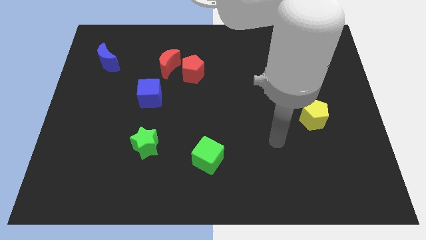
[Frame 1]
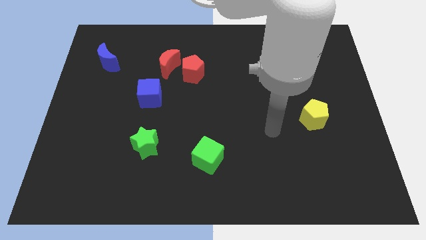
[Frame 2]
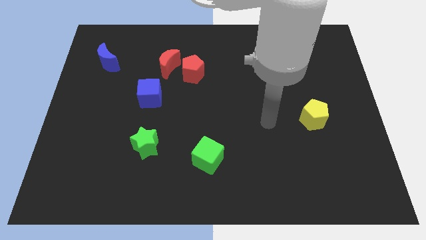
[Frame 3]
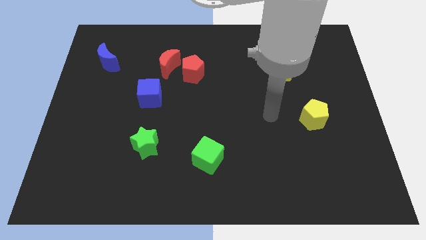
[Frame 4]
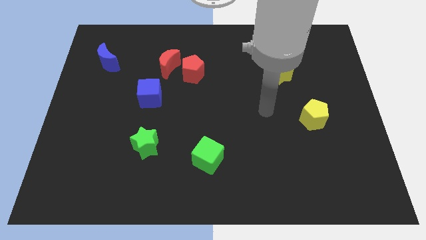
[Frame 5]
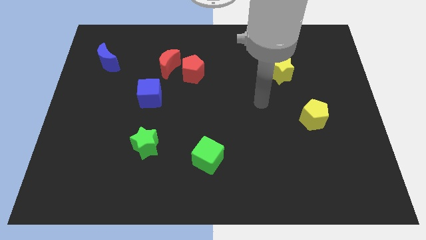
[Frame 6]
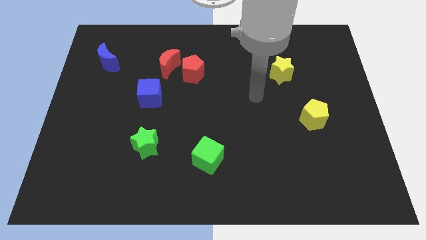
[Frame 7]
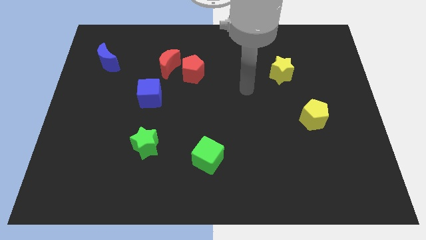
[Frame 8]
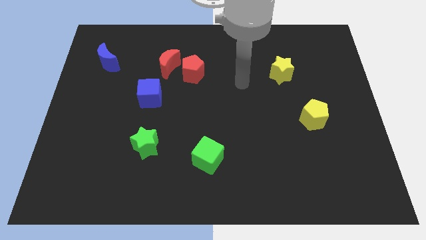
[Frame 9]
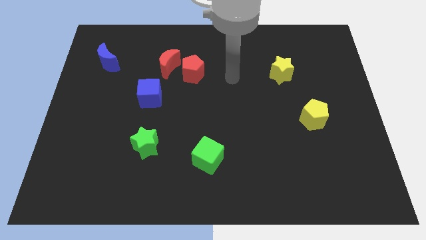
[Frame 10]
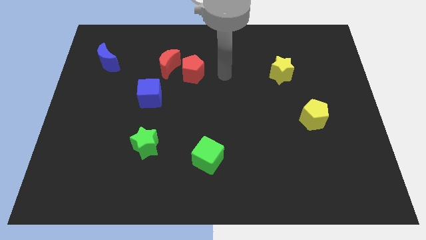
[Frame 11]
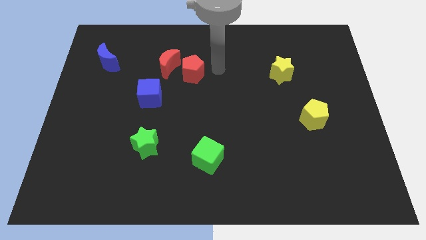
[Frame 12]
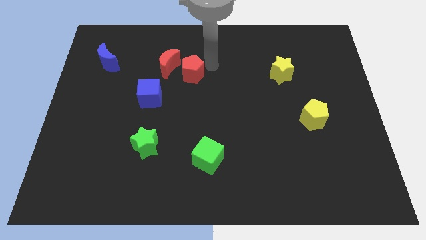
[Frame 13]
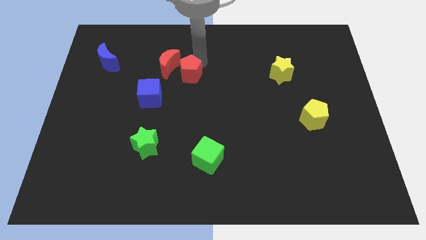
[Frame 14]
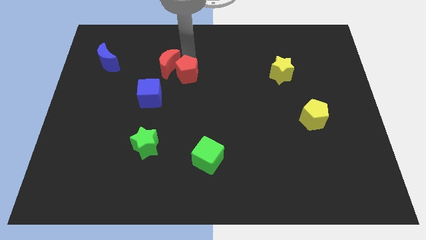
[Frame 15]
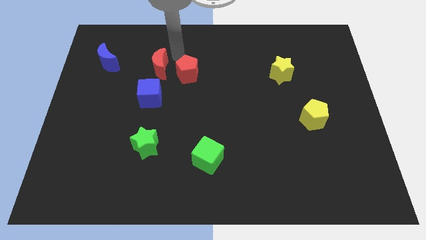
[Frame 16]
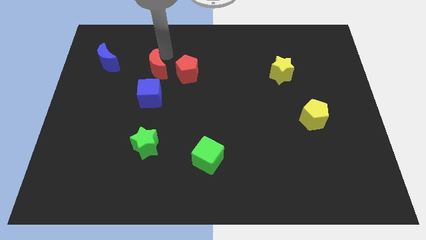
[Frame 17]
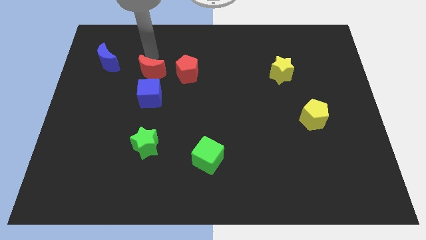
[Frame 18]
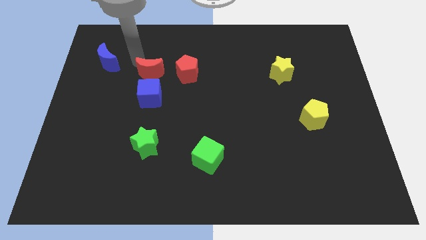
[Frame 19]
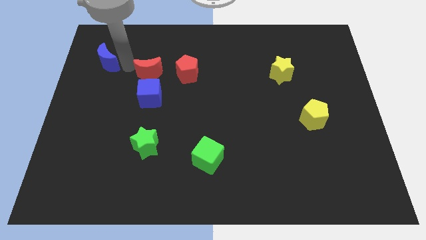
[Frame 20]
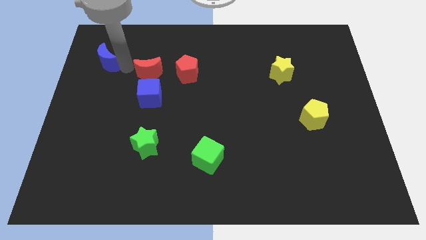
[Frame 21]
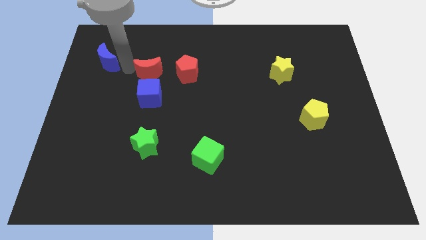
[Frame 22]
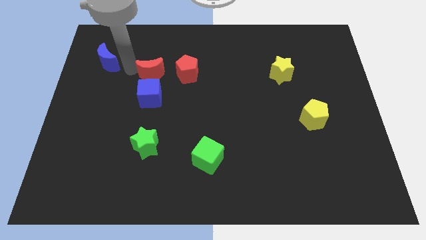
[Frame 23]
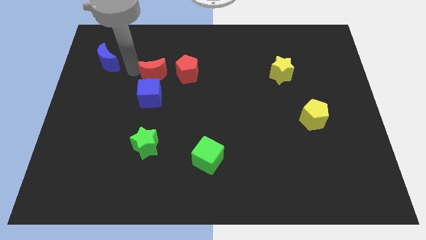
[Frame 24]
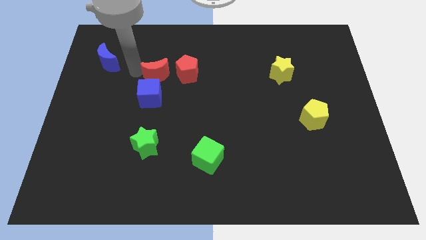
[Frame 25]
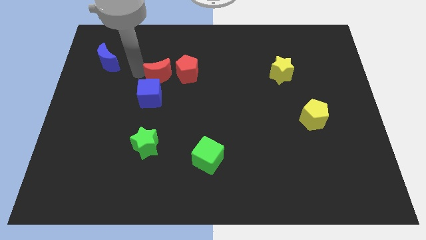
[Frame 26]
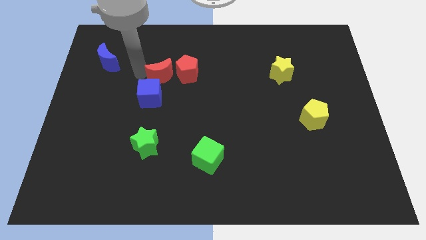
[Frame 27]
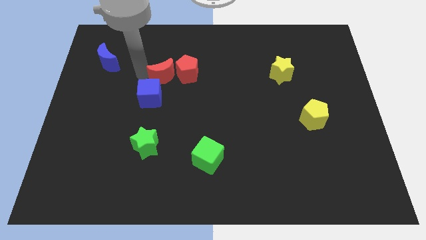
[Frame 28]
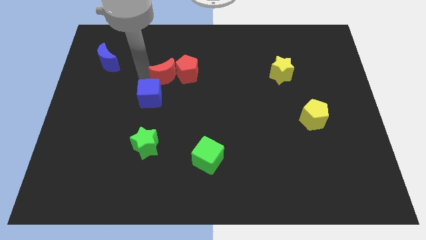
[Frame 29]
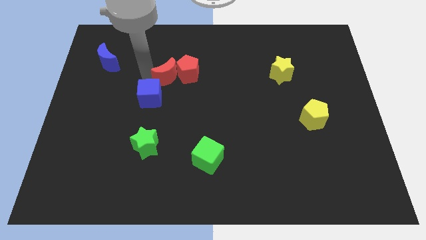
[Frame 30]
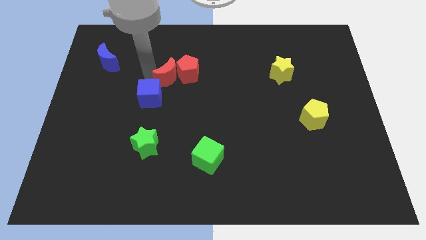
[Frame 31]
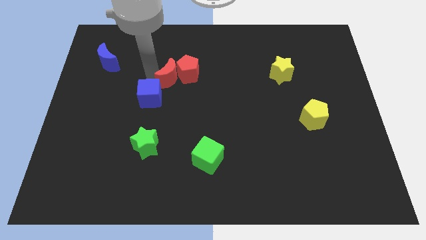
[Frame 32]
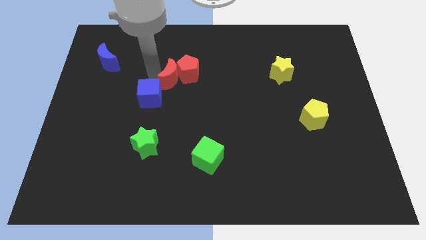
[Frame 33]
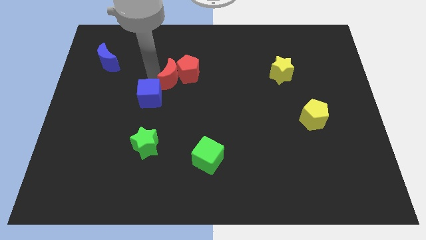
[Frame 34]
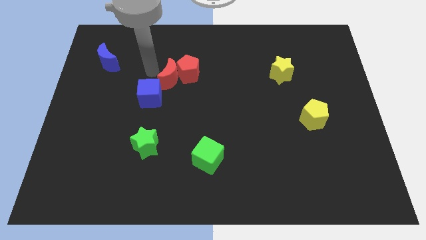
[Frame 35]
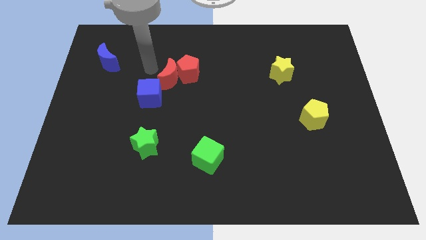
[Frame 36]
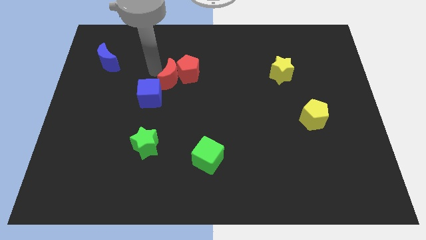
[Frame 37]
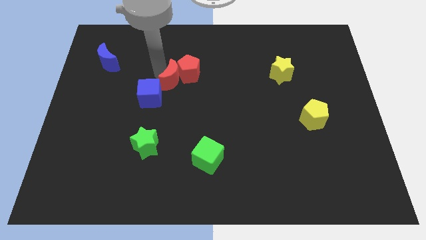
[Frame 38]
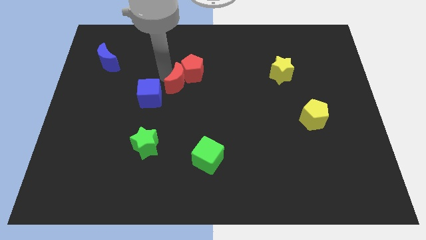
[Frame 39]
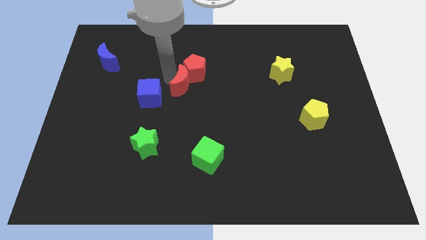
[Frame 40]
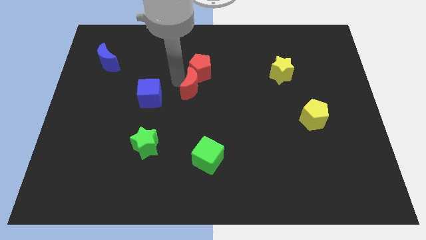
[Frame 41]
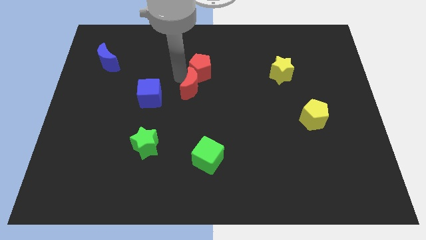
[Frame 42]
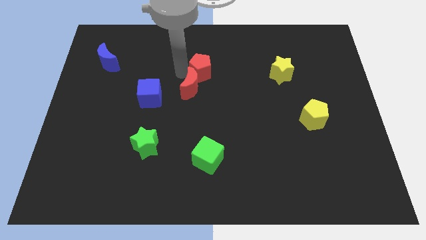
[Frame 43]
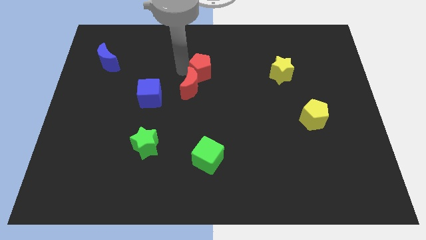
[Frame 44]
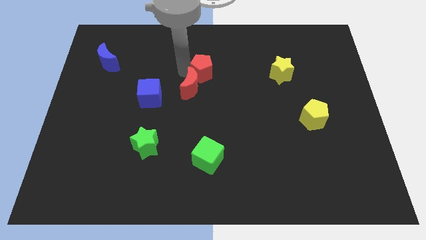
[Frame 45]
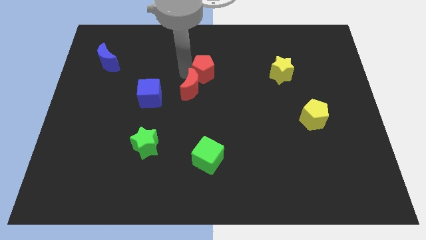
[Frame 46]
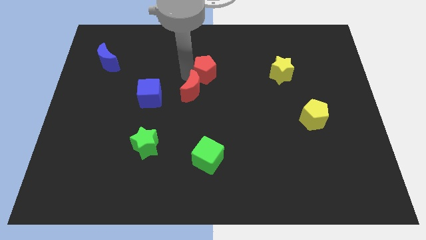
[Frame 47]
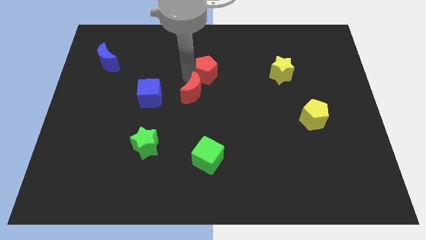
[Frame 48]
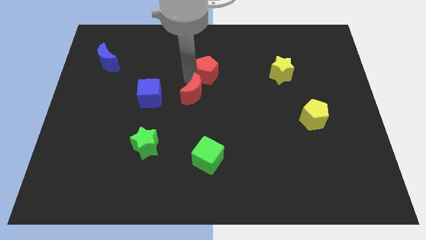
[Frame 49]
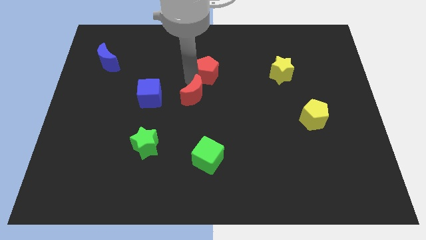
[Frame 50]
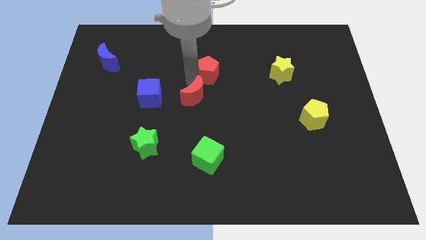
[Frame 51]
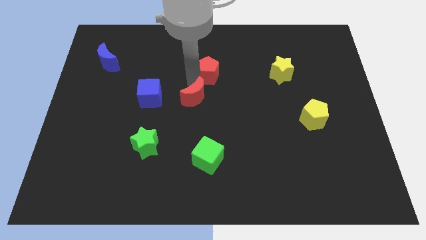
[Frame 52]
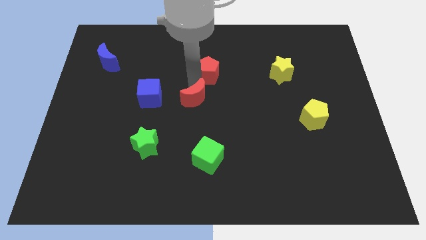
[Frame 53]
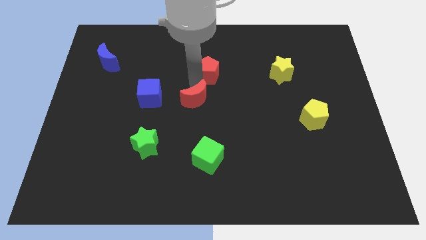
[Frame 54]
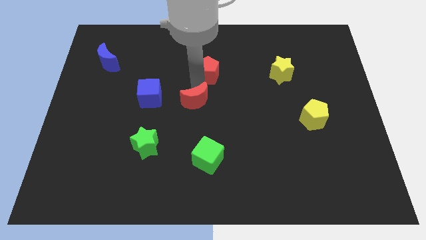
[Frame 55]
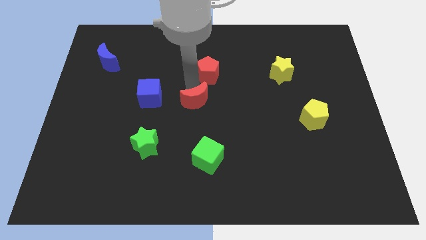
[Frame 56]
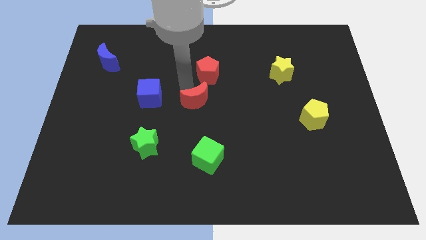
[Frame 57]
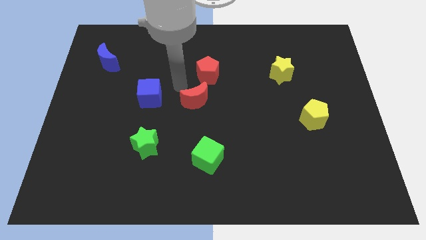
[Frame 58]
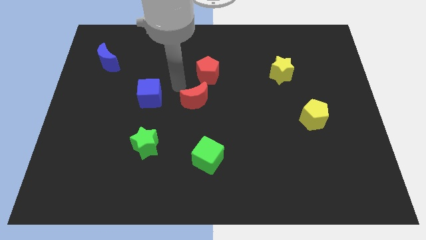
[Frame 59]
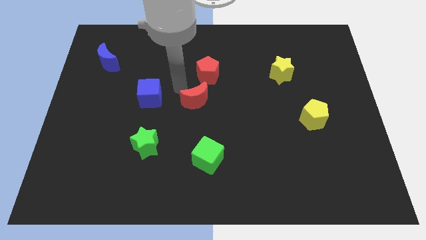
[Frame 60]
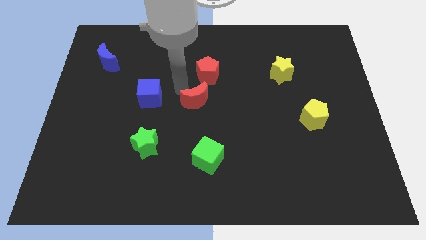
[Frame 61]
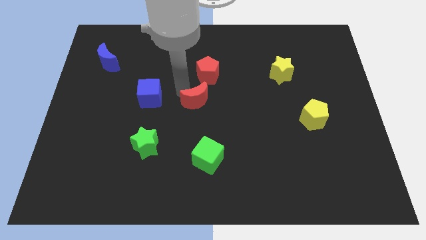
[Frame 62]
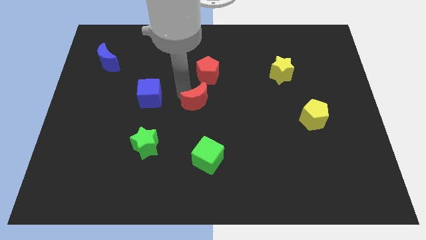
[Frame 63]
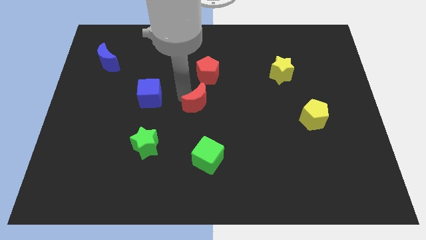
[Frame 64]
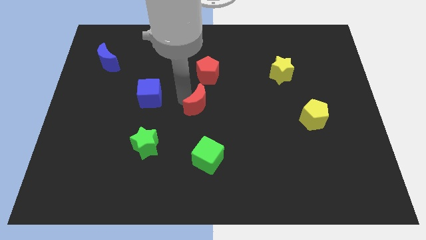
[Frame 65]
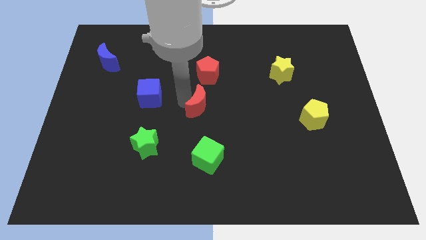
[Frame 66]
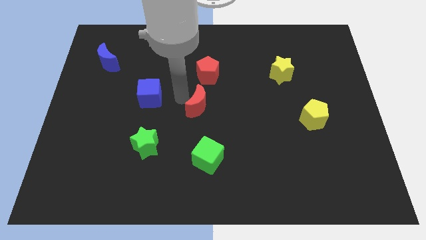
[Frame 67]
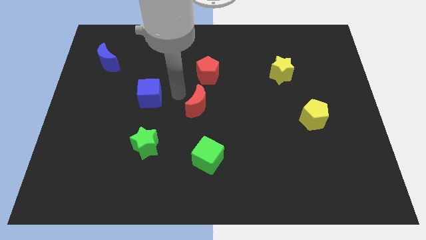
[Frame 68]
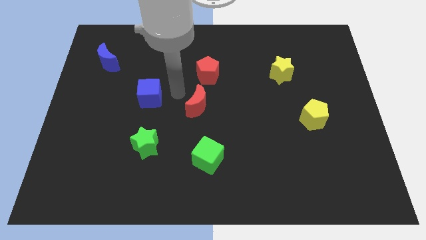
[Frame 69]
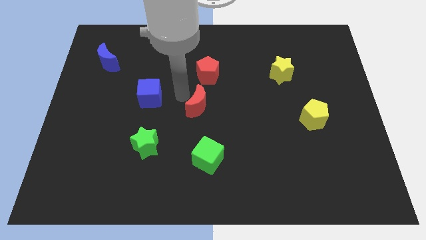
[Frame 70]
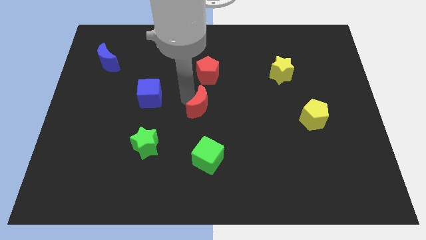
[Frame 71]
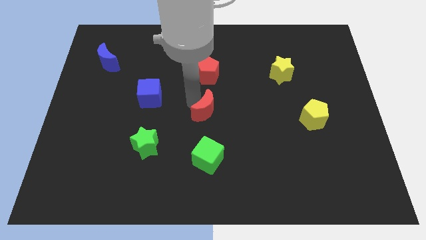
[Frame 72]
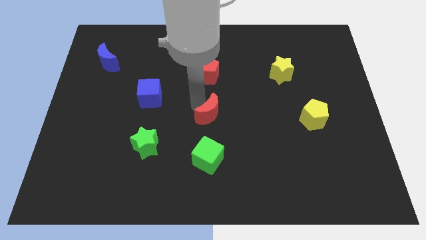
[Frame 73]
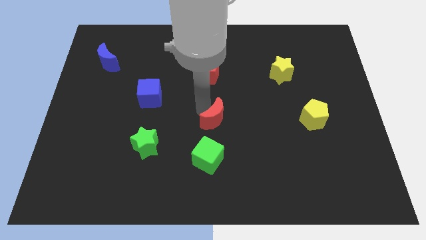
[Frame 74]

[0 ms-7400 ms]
slide the red moon down and to the right diagonally

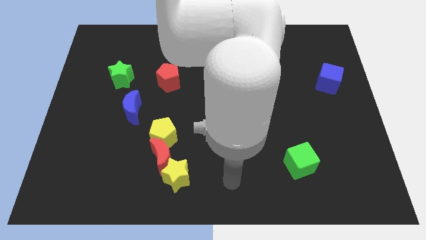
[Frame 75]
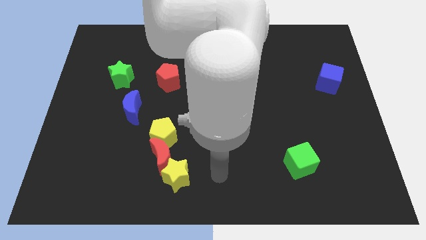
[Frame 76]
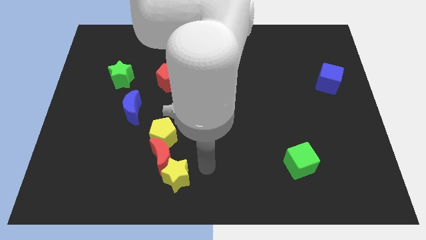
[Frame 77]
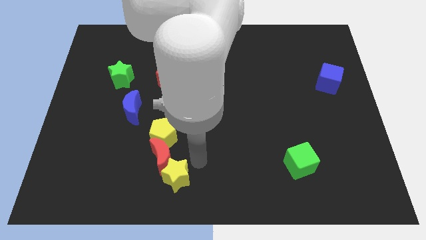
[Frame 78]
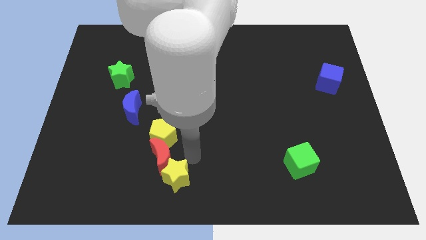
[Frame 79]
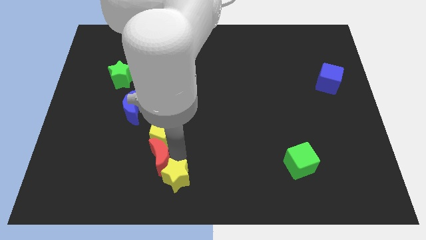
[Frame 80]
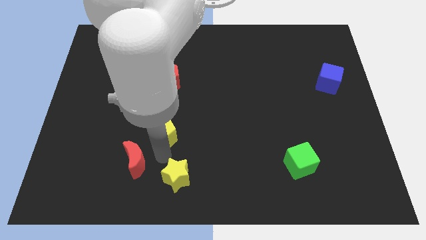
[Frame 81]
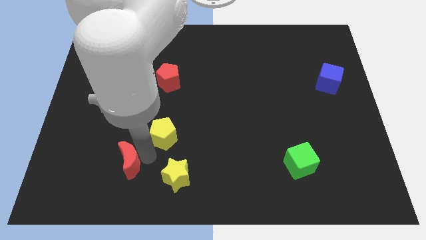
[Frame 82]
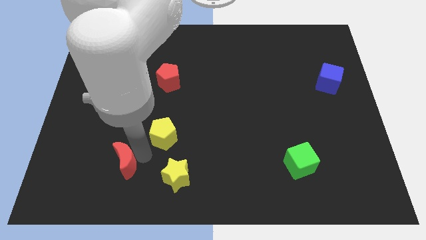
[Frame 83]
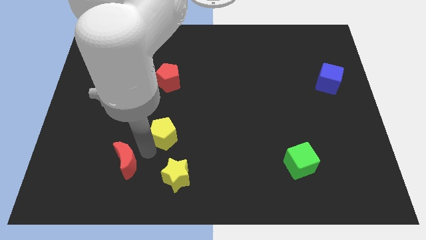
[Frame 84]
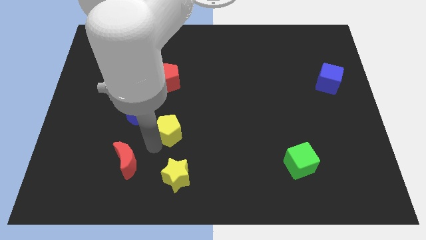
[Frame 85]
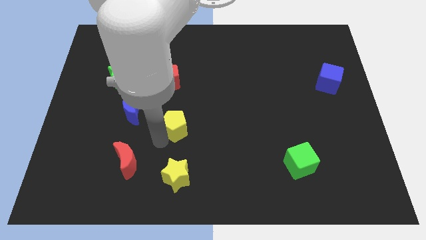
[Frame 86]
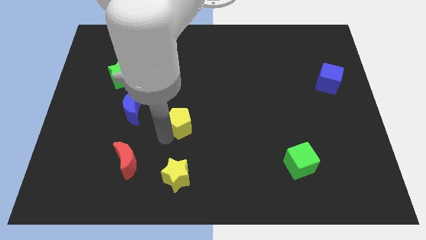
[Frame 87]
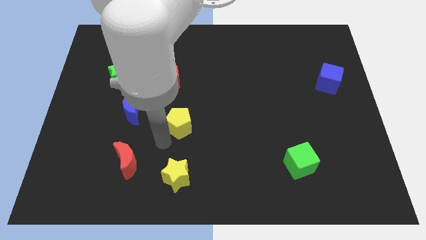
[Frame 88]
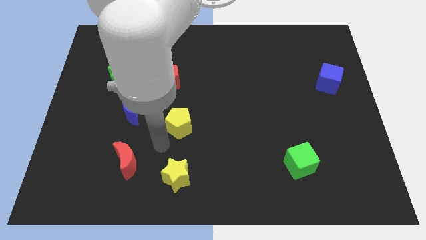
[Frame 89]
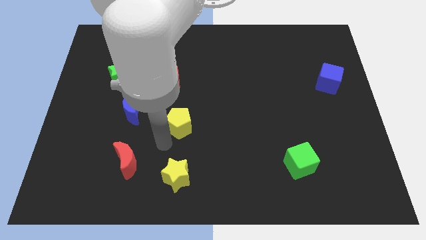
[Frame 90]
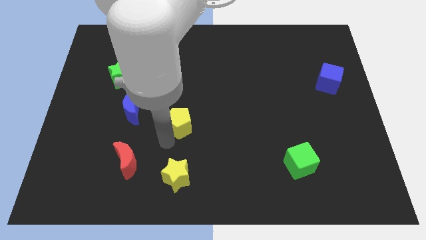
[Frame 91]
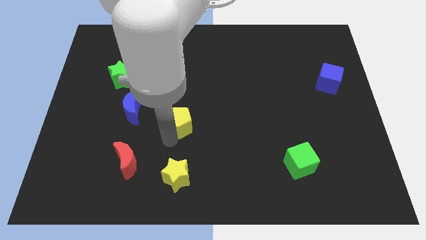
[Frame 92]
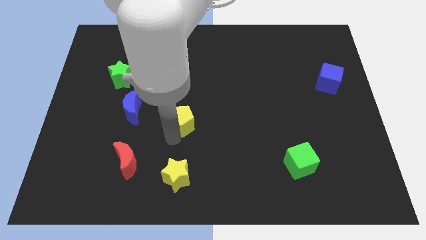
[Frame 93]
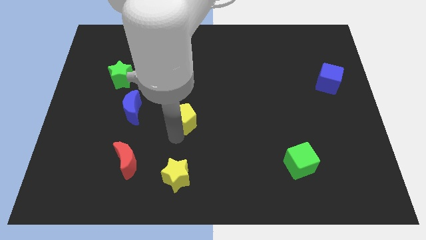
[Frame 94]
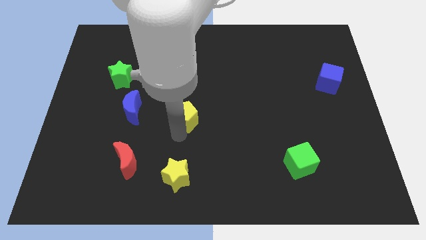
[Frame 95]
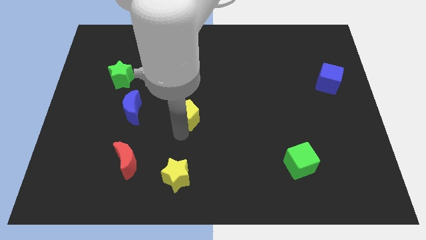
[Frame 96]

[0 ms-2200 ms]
slightly move the yellow pentagon up and then right
